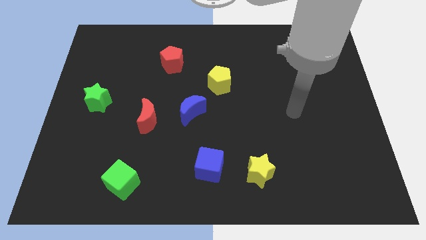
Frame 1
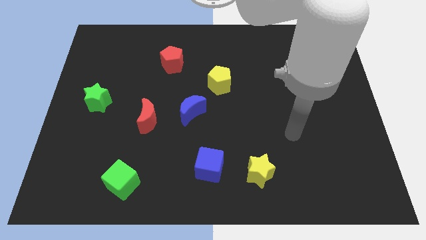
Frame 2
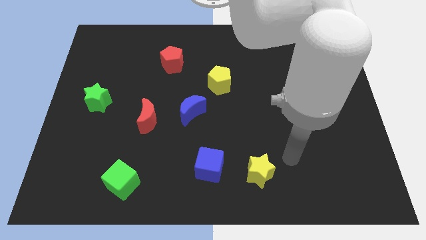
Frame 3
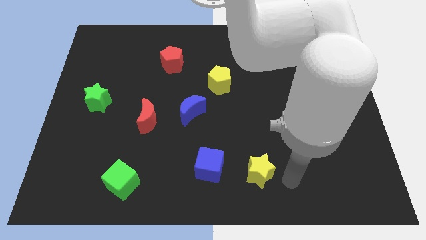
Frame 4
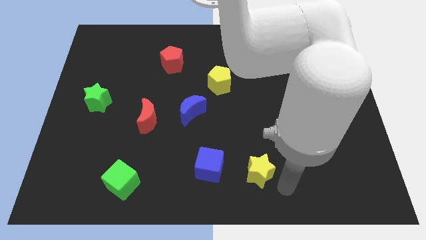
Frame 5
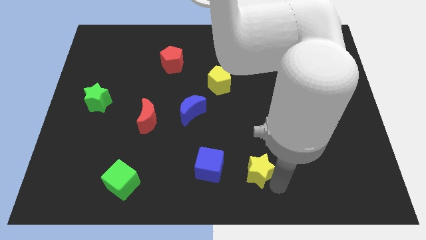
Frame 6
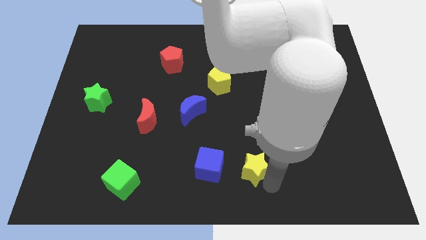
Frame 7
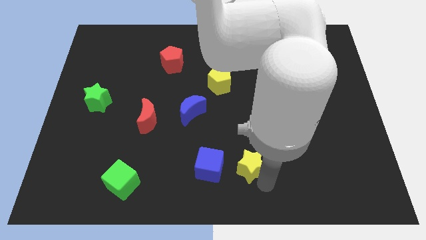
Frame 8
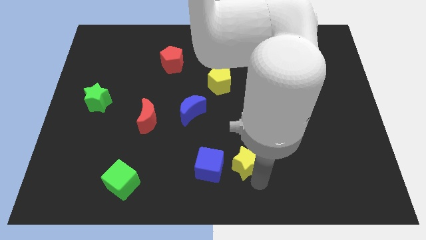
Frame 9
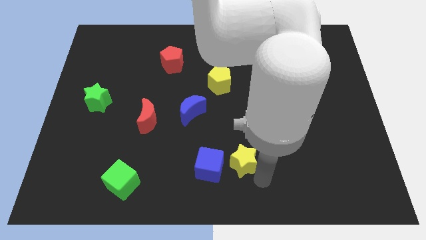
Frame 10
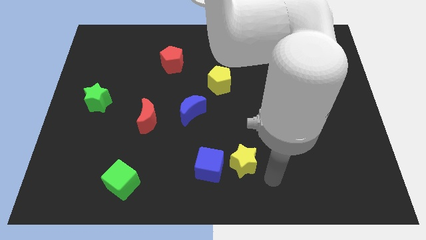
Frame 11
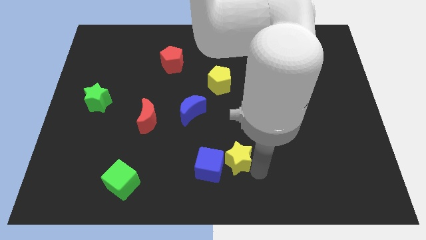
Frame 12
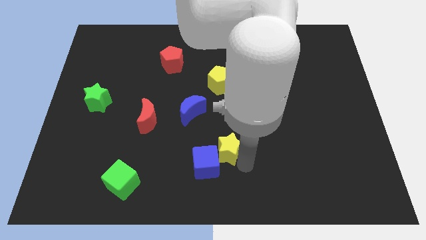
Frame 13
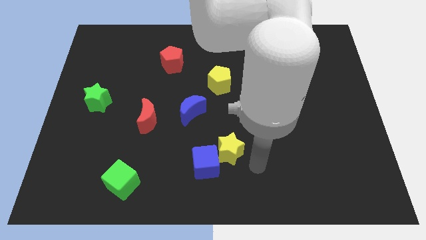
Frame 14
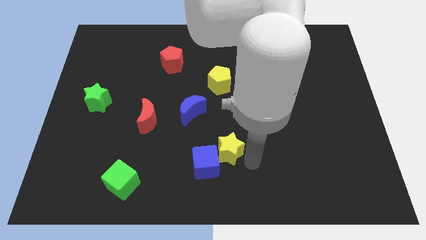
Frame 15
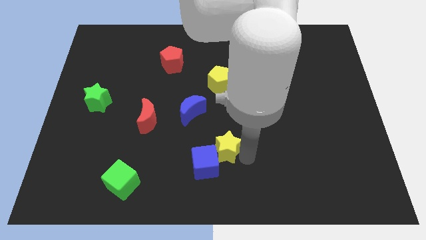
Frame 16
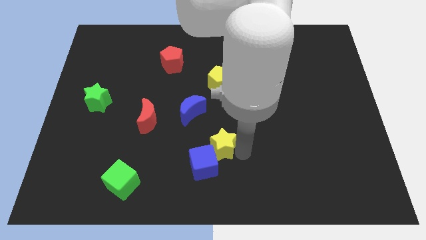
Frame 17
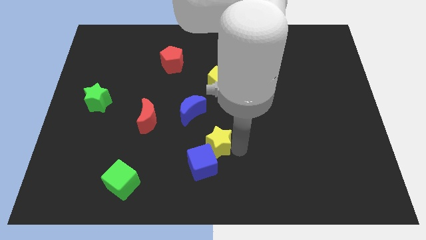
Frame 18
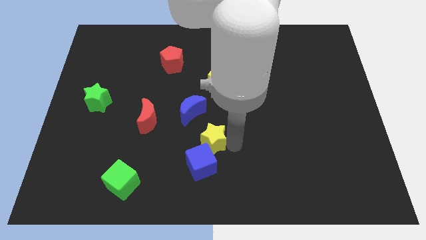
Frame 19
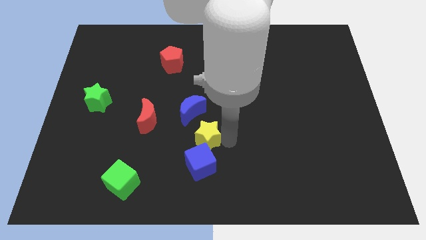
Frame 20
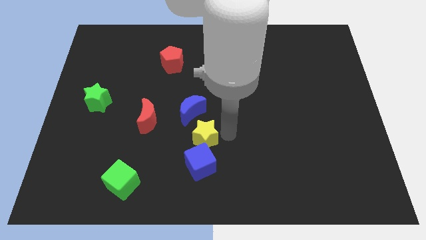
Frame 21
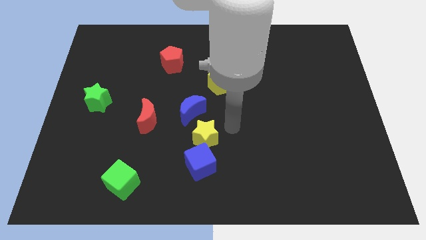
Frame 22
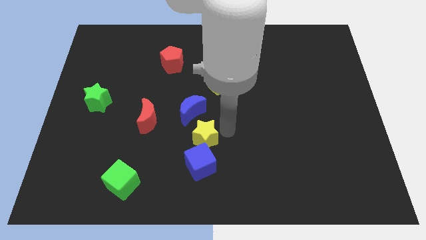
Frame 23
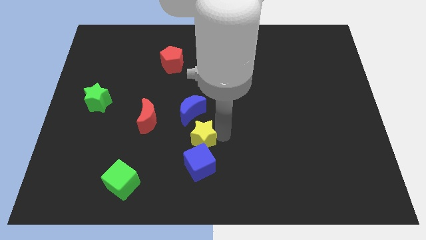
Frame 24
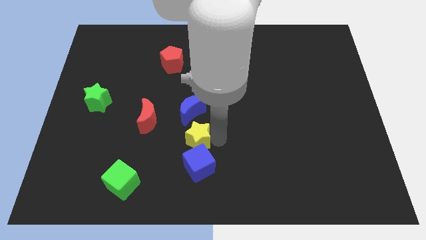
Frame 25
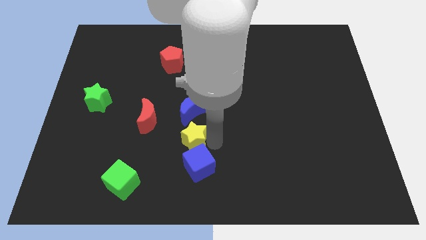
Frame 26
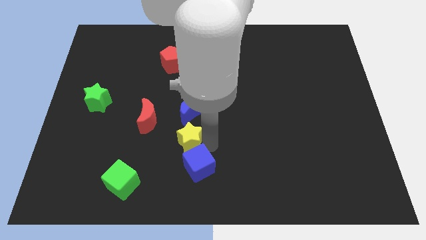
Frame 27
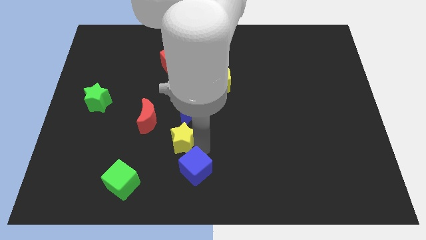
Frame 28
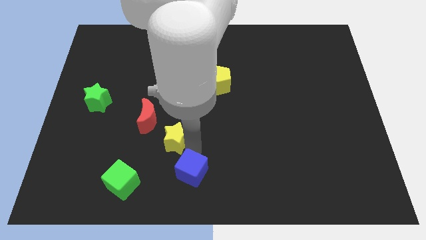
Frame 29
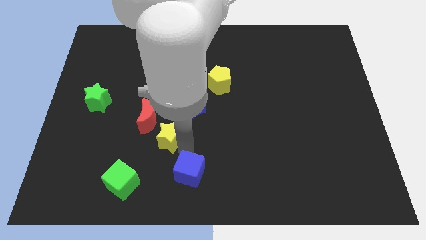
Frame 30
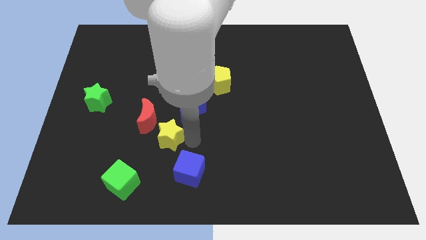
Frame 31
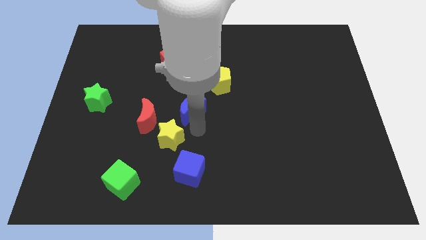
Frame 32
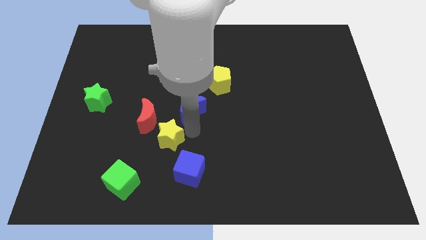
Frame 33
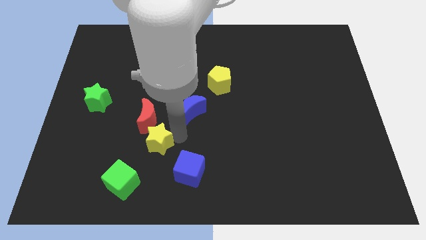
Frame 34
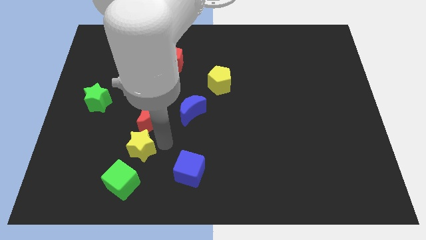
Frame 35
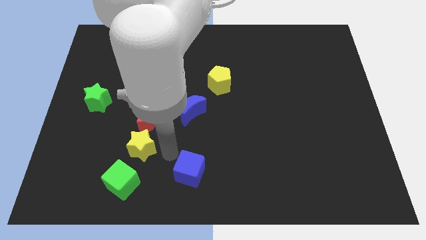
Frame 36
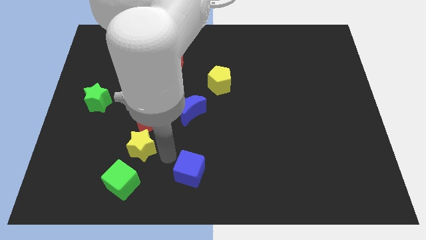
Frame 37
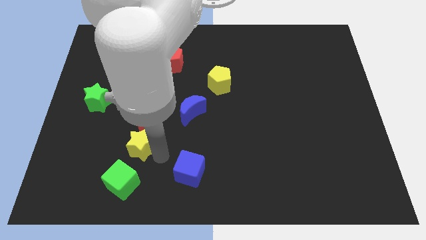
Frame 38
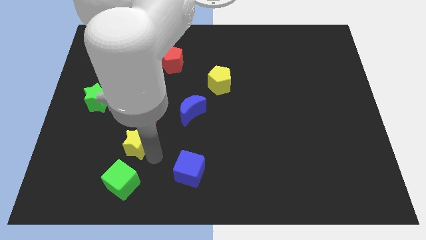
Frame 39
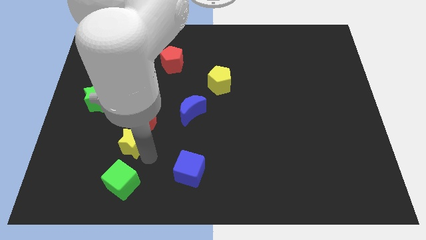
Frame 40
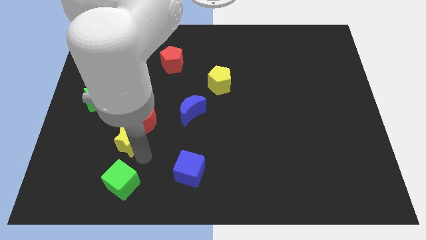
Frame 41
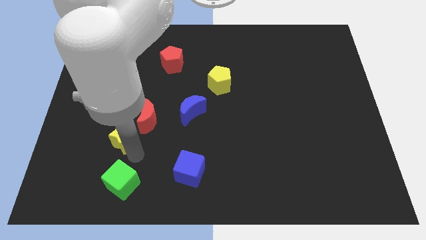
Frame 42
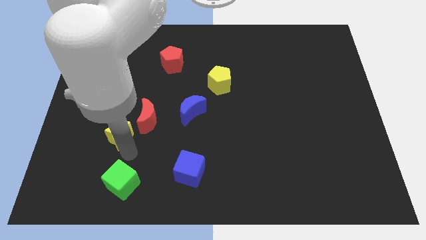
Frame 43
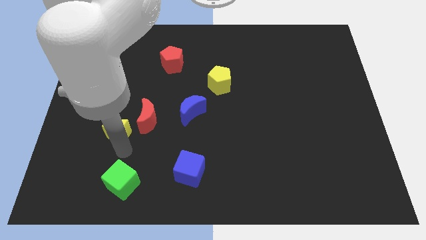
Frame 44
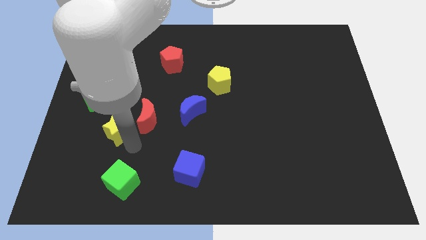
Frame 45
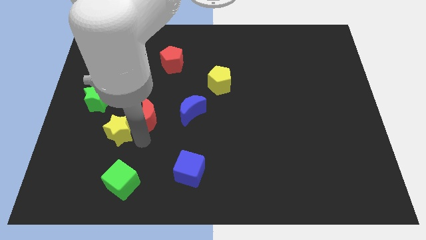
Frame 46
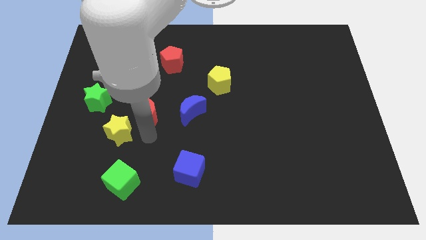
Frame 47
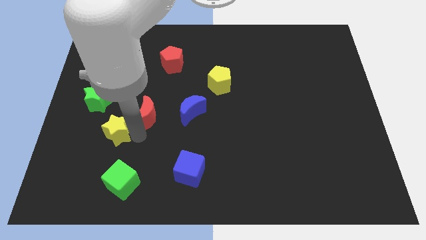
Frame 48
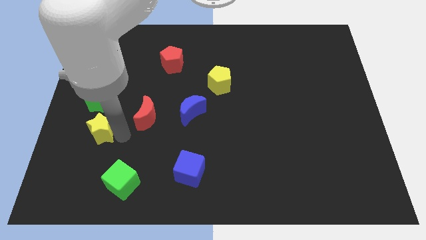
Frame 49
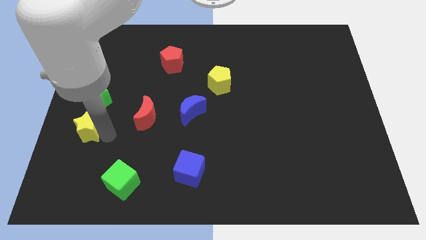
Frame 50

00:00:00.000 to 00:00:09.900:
put the yellow star to the center left

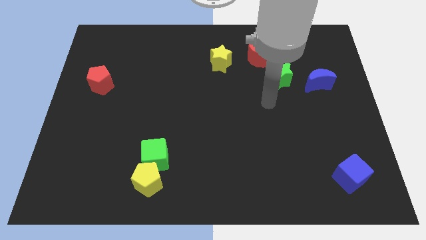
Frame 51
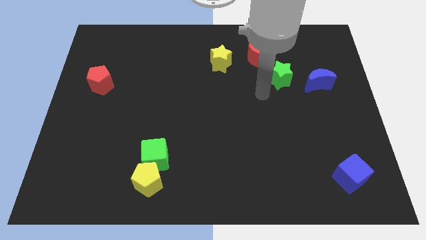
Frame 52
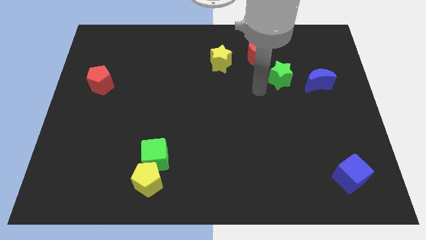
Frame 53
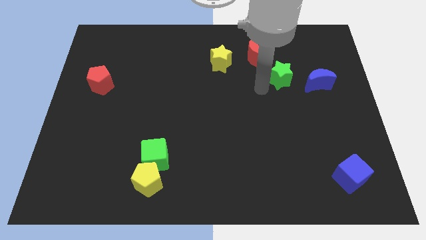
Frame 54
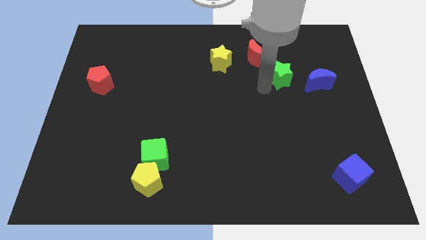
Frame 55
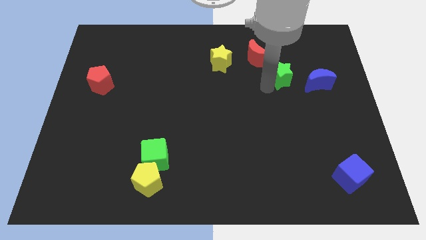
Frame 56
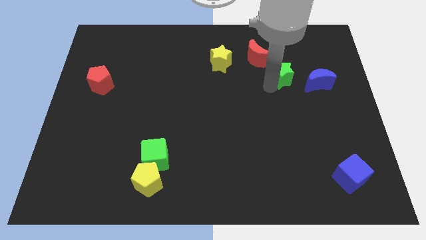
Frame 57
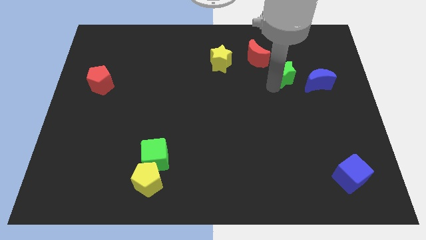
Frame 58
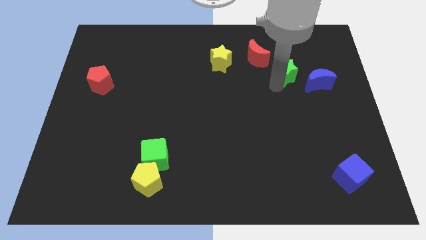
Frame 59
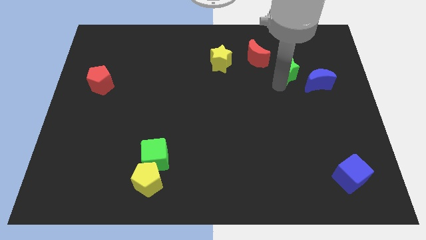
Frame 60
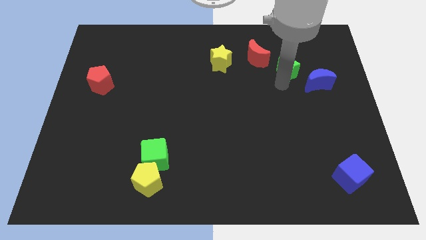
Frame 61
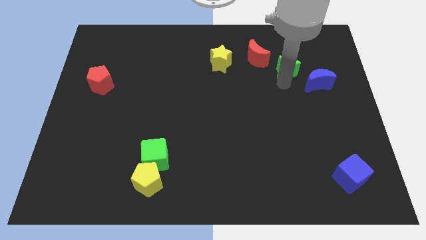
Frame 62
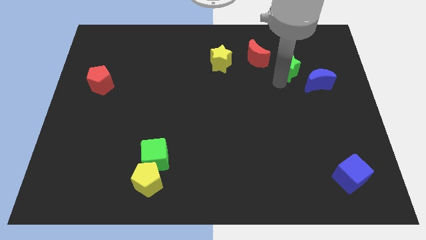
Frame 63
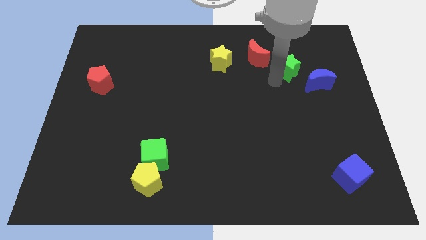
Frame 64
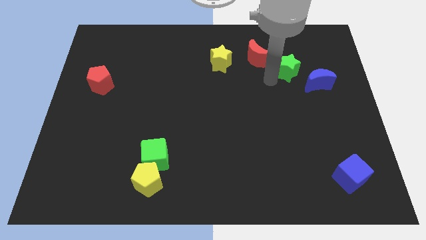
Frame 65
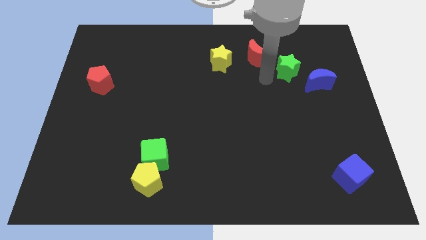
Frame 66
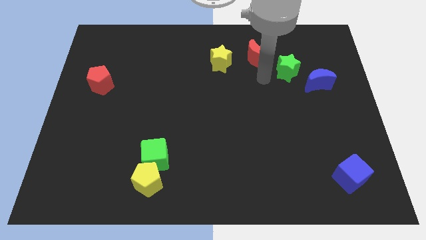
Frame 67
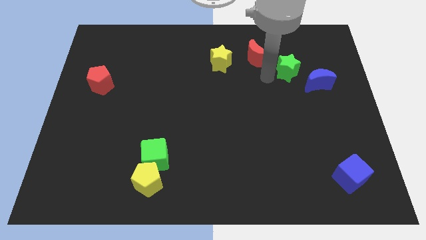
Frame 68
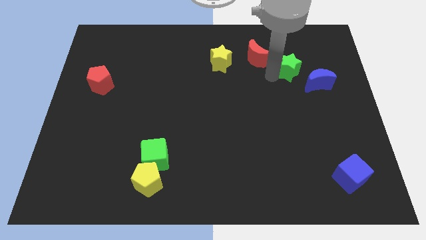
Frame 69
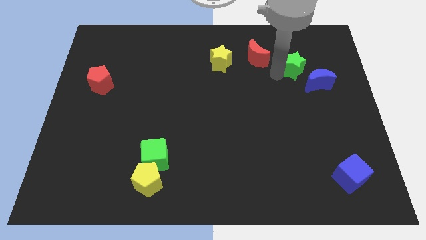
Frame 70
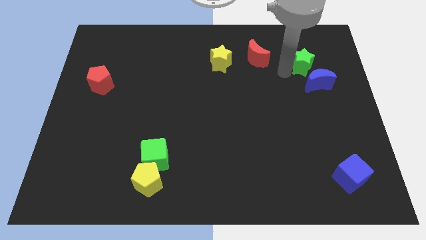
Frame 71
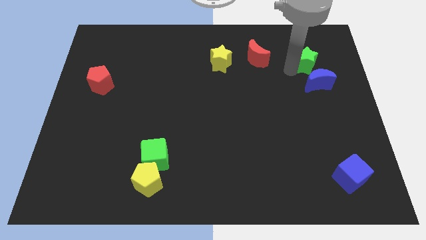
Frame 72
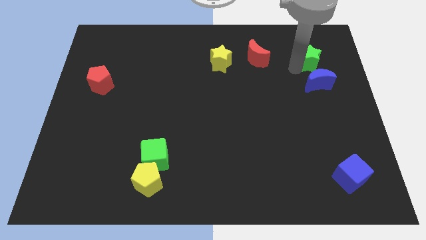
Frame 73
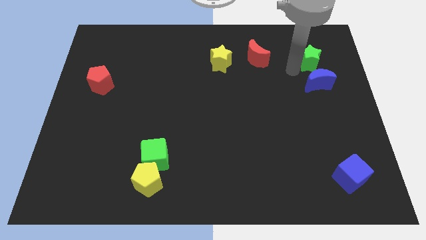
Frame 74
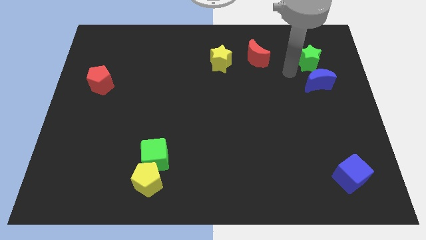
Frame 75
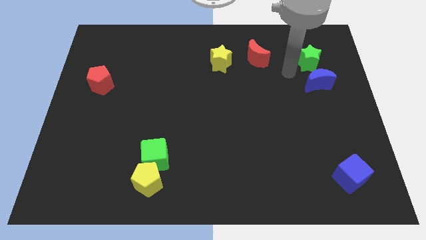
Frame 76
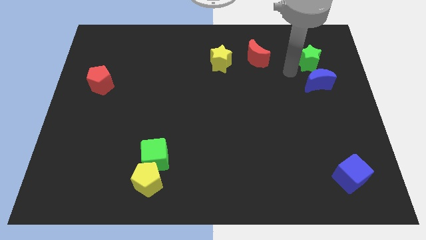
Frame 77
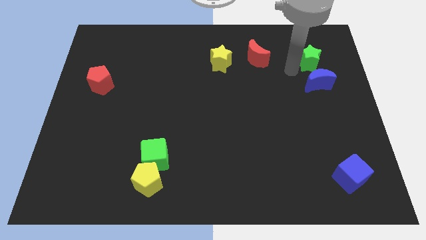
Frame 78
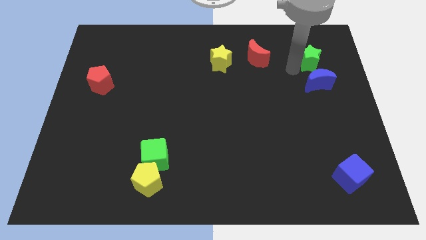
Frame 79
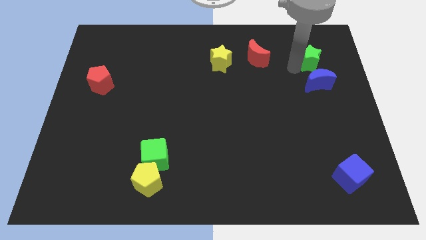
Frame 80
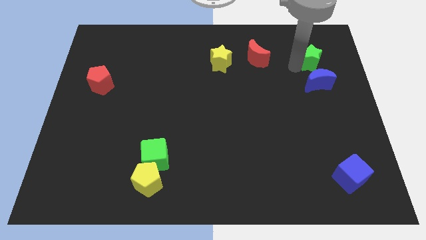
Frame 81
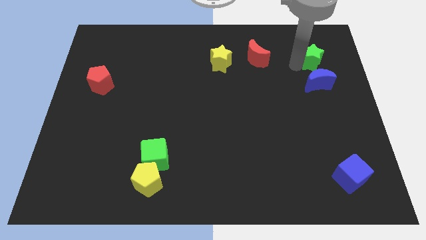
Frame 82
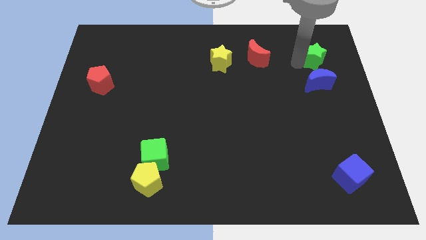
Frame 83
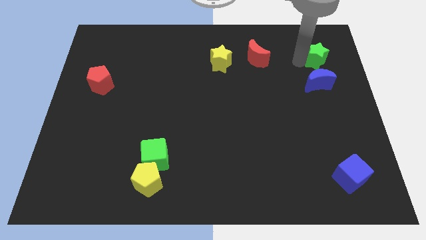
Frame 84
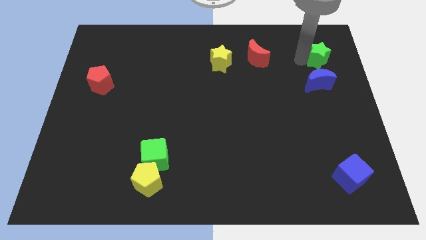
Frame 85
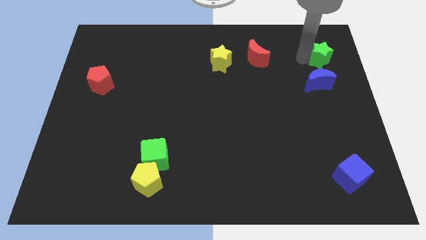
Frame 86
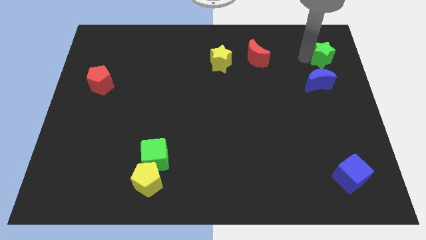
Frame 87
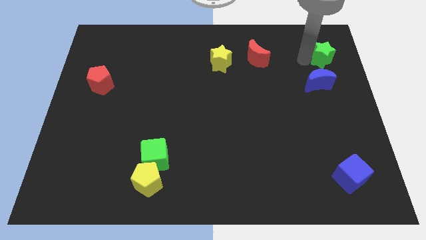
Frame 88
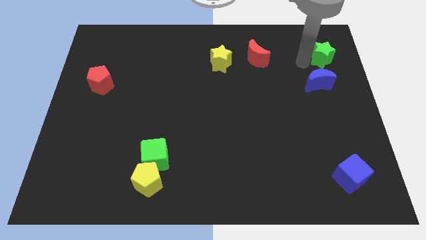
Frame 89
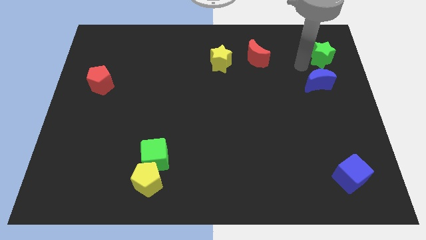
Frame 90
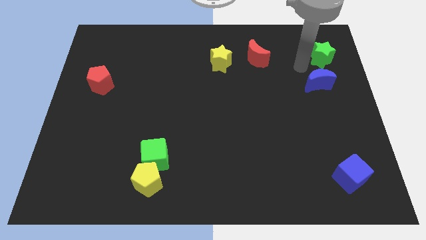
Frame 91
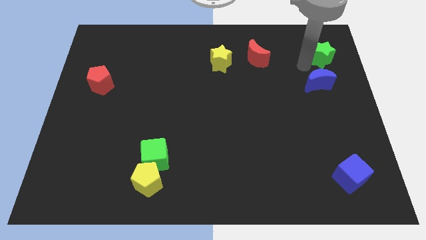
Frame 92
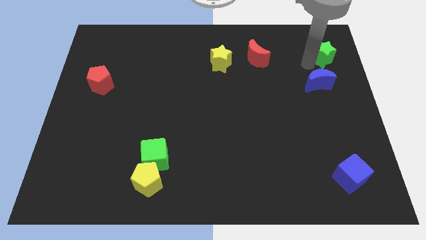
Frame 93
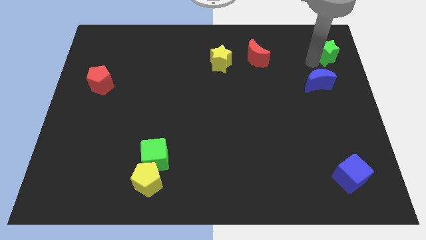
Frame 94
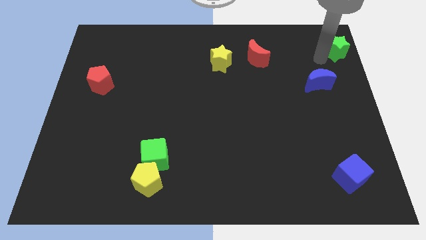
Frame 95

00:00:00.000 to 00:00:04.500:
push the green star to the upper right corner
